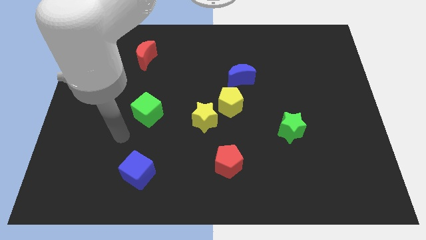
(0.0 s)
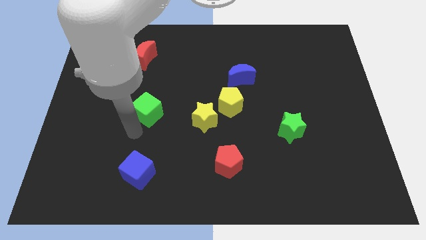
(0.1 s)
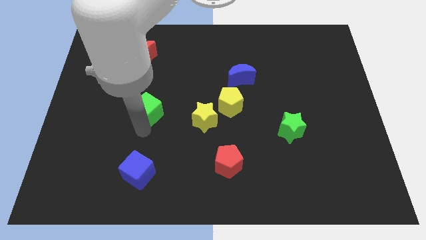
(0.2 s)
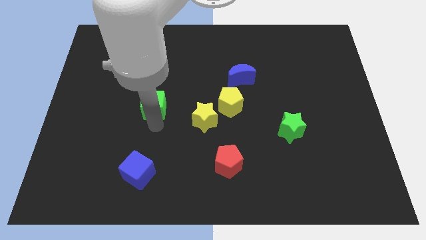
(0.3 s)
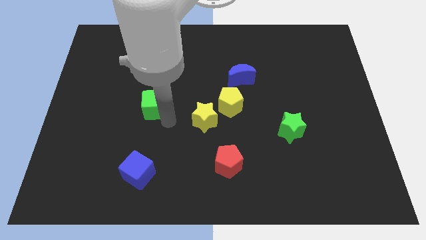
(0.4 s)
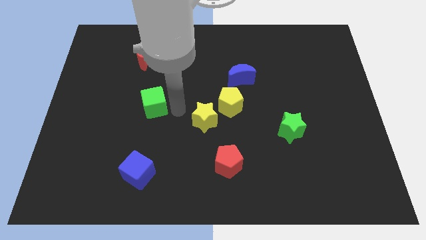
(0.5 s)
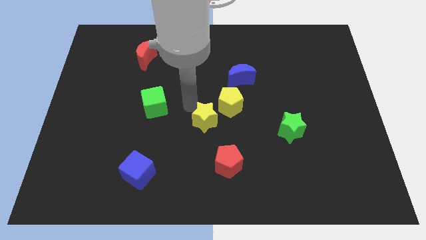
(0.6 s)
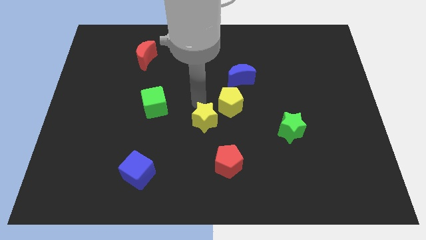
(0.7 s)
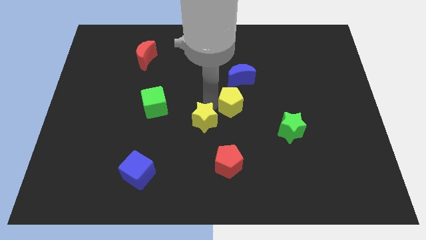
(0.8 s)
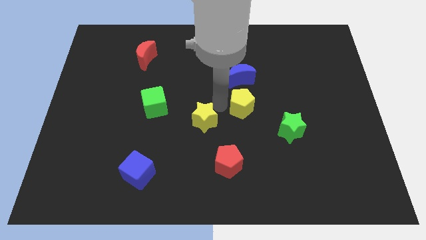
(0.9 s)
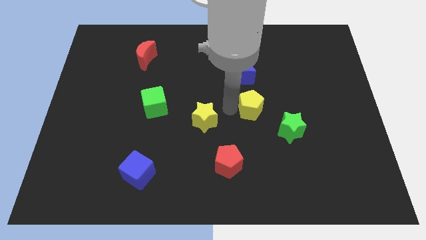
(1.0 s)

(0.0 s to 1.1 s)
separate the yellow star from the yellow pentagon

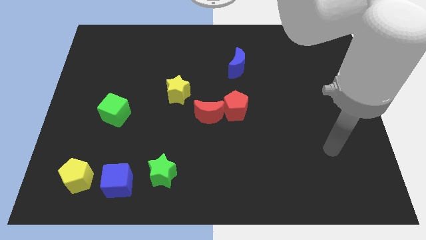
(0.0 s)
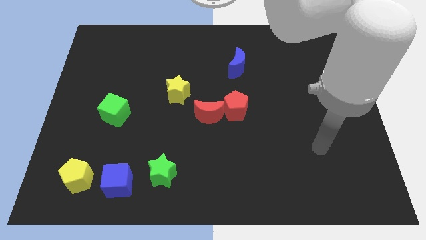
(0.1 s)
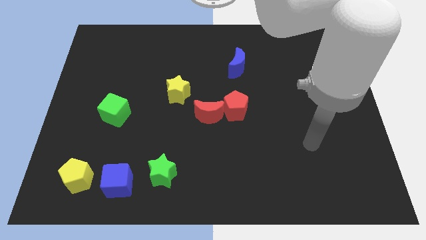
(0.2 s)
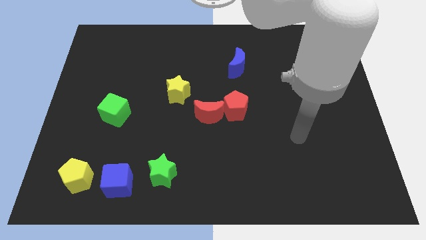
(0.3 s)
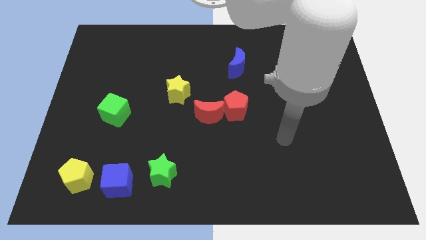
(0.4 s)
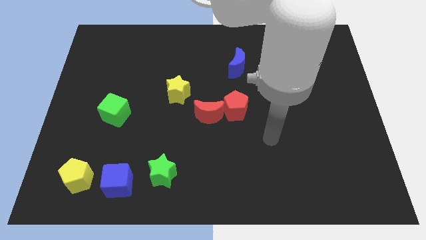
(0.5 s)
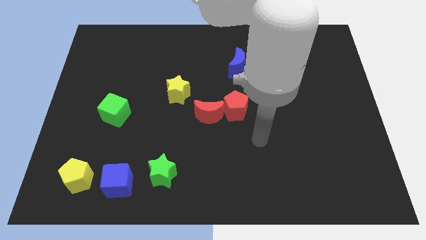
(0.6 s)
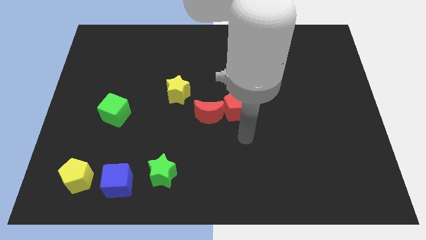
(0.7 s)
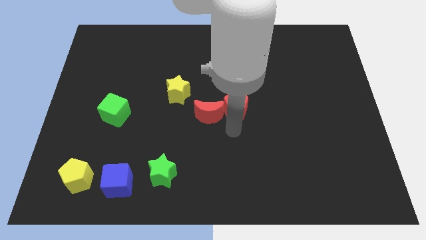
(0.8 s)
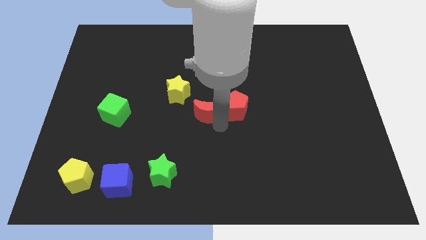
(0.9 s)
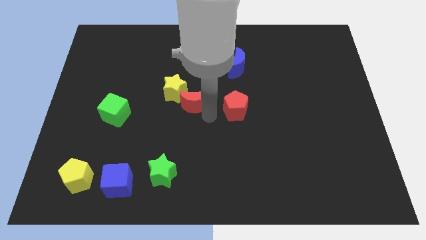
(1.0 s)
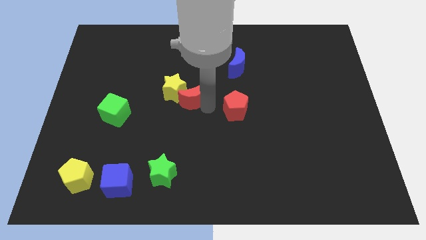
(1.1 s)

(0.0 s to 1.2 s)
pull the red pentagon apart from the red moon

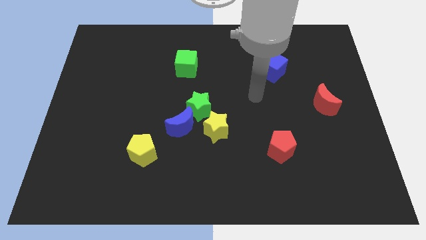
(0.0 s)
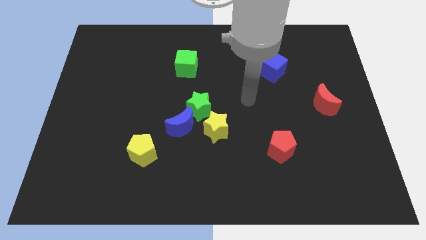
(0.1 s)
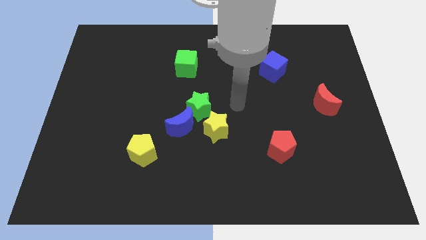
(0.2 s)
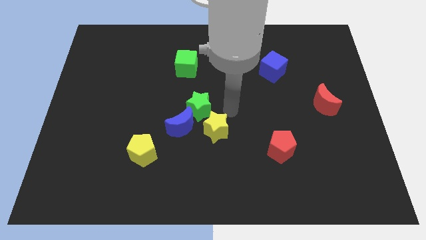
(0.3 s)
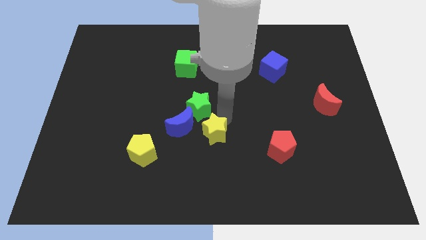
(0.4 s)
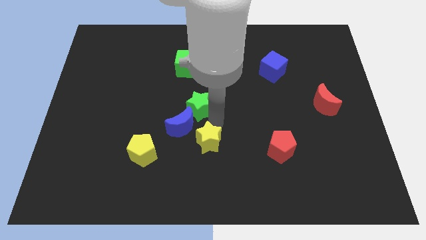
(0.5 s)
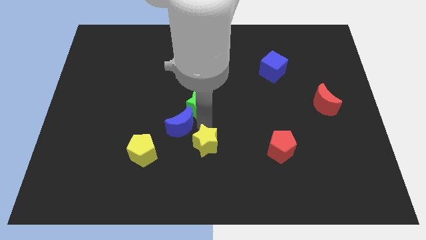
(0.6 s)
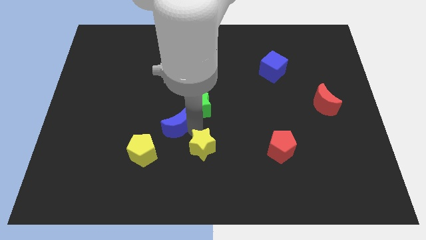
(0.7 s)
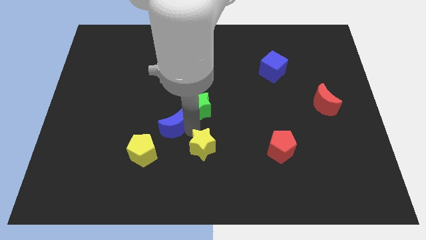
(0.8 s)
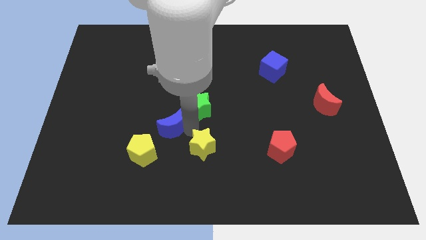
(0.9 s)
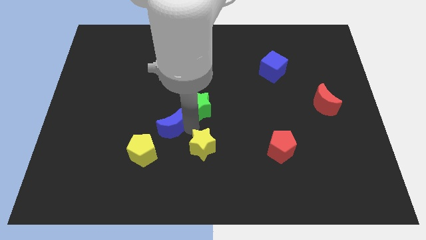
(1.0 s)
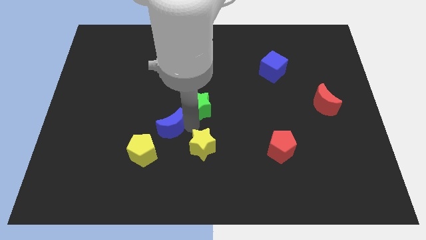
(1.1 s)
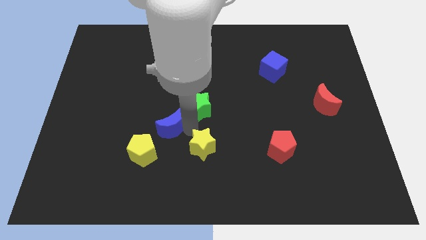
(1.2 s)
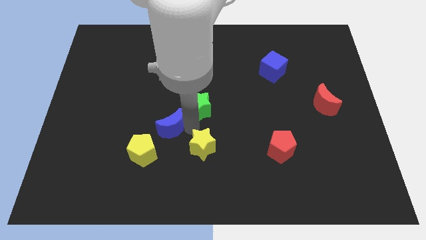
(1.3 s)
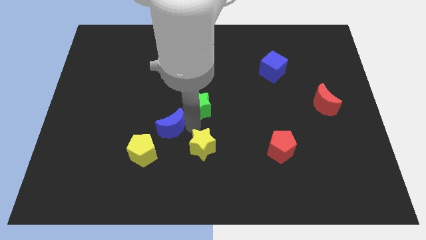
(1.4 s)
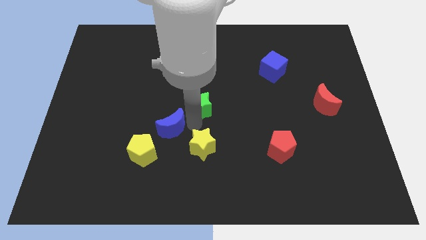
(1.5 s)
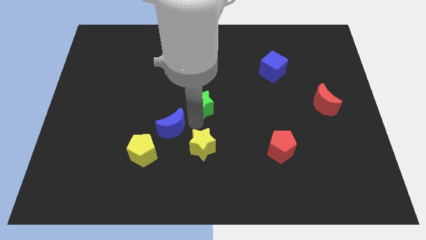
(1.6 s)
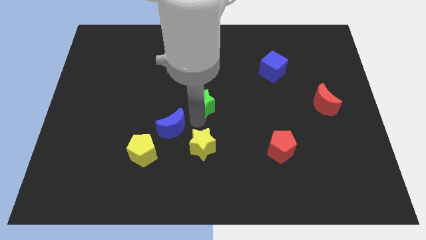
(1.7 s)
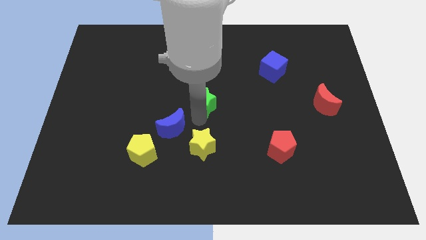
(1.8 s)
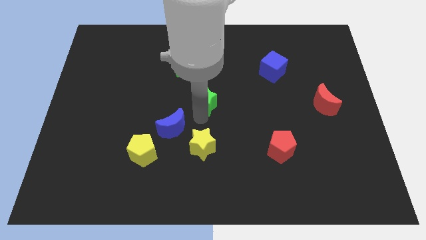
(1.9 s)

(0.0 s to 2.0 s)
move the green star away from the blue moon and yellow star

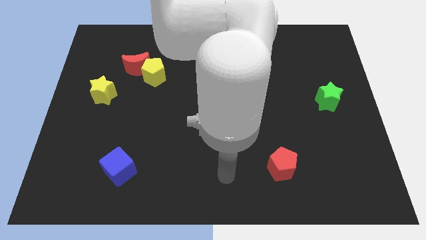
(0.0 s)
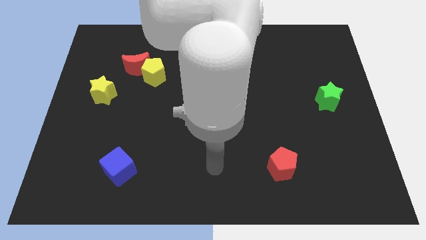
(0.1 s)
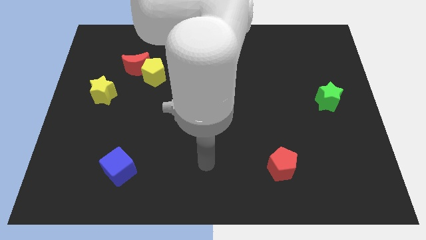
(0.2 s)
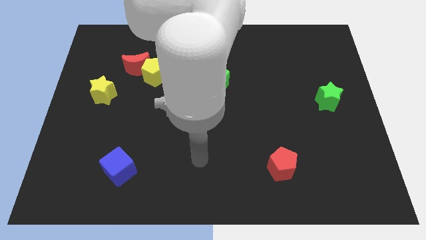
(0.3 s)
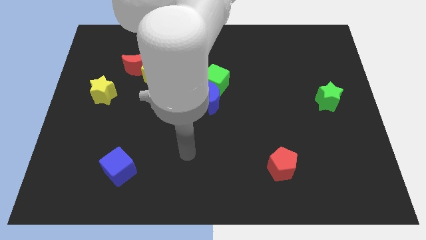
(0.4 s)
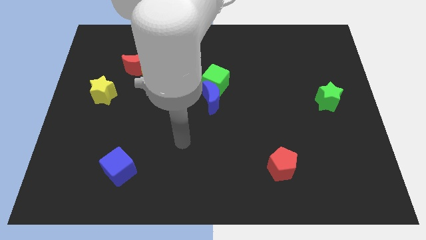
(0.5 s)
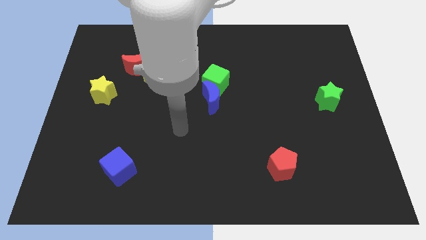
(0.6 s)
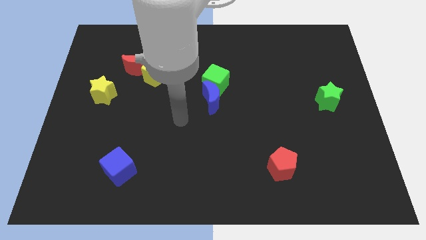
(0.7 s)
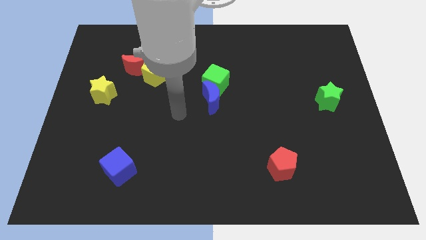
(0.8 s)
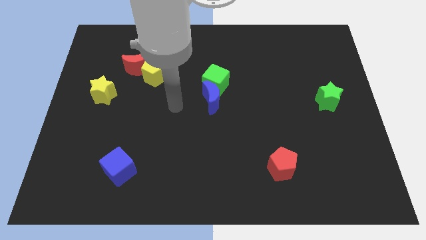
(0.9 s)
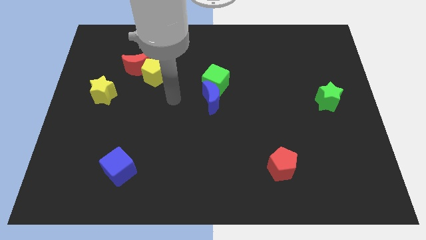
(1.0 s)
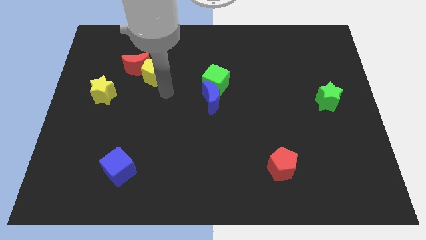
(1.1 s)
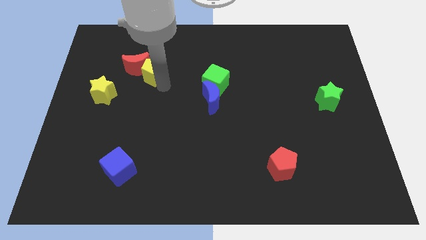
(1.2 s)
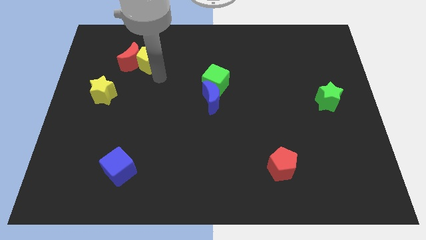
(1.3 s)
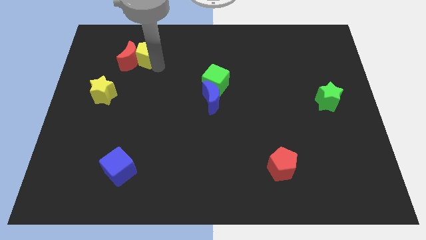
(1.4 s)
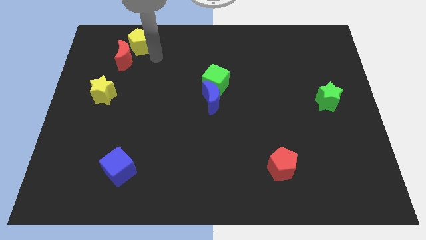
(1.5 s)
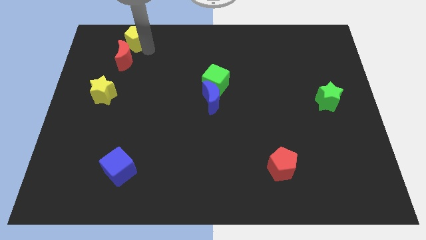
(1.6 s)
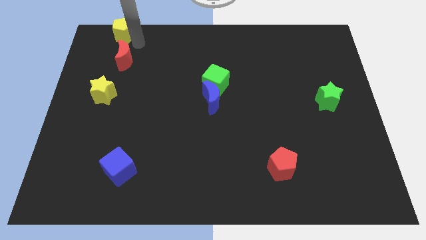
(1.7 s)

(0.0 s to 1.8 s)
pull the red moon apart from the yellow pentagon

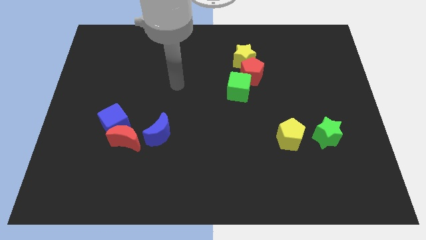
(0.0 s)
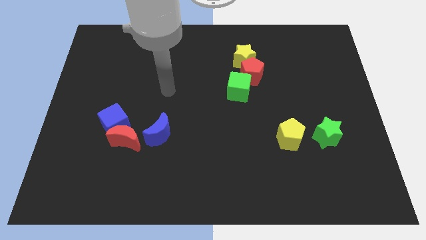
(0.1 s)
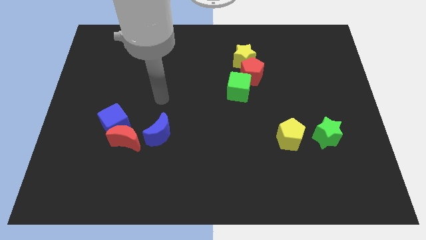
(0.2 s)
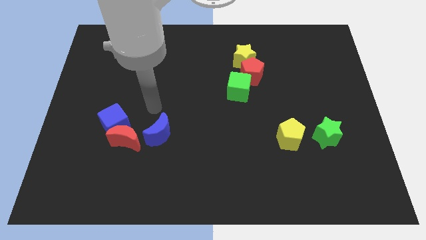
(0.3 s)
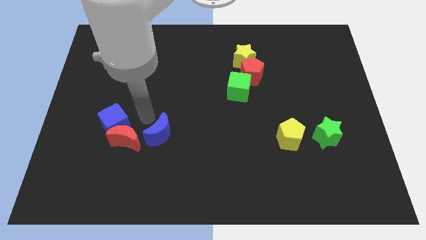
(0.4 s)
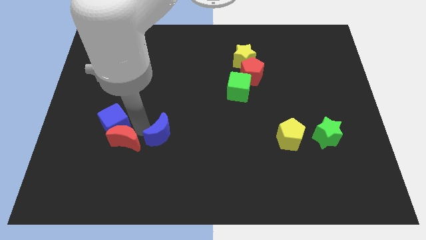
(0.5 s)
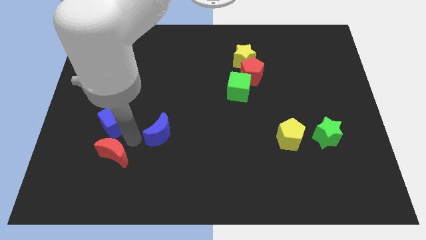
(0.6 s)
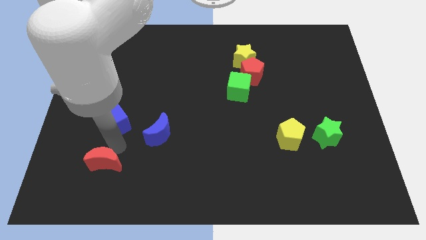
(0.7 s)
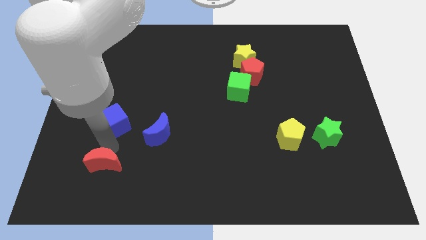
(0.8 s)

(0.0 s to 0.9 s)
move the blue cube away from the red moon

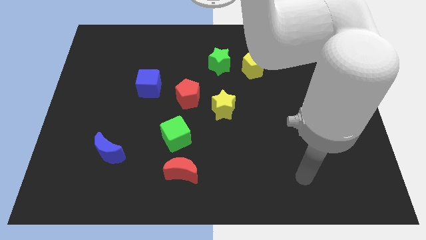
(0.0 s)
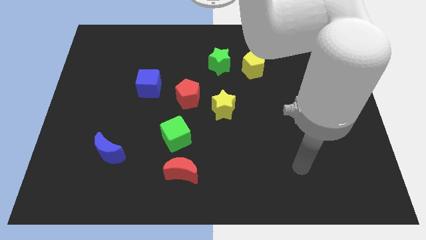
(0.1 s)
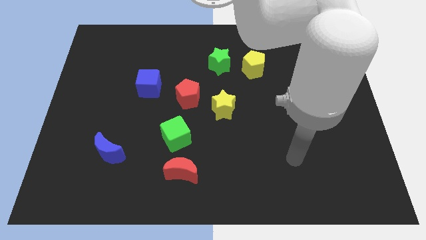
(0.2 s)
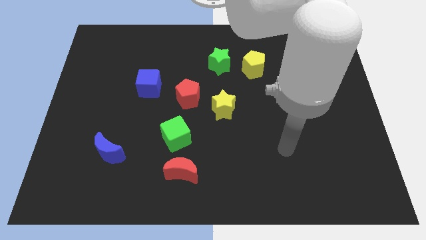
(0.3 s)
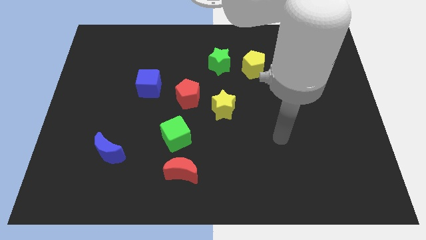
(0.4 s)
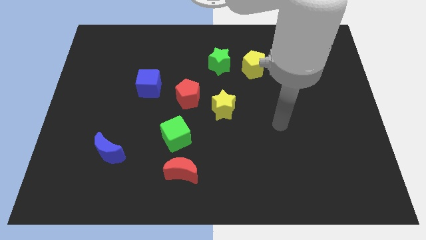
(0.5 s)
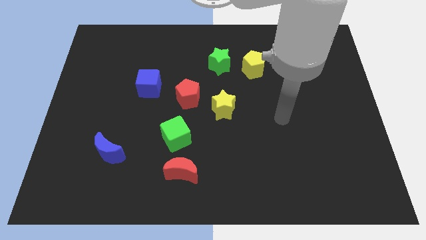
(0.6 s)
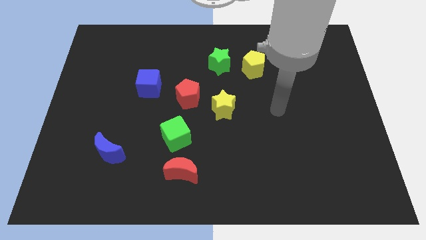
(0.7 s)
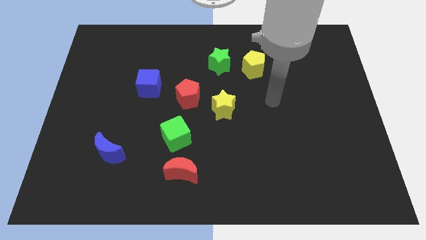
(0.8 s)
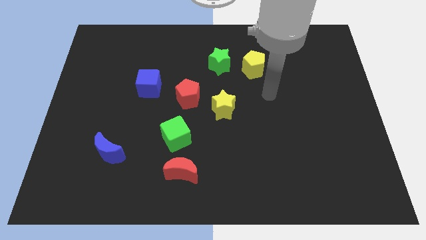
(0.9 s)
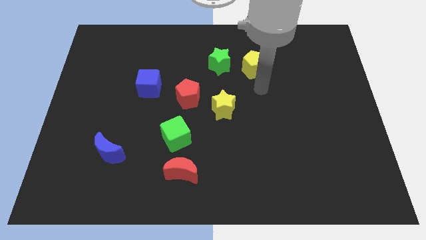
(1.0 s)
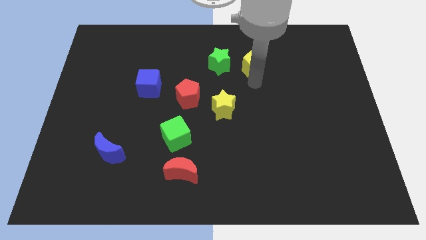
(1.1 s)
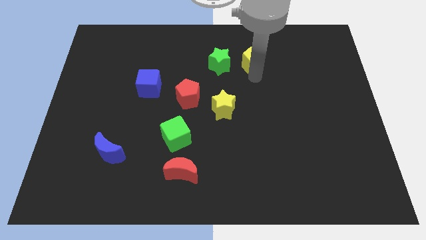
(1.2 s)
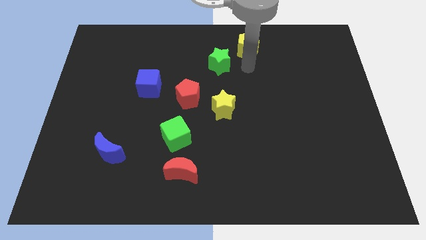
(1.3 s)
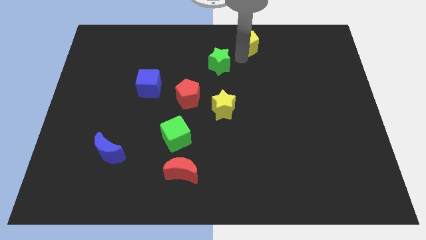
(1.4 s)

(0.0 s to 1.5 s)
pull the green star apart from the yellow pentagon

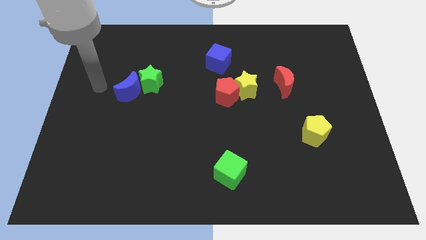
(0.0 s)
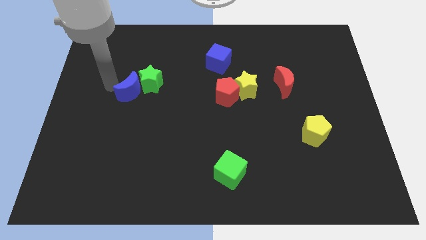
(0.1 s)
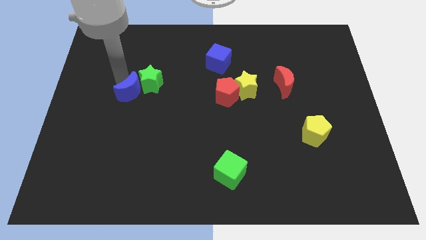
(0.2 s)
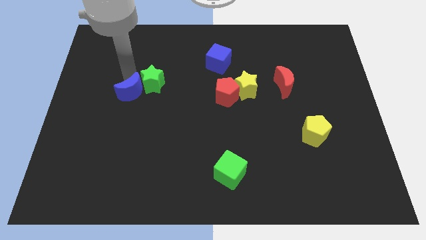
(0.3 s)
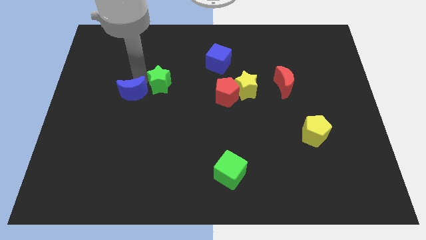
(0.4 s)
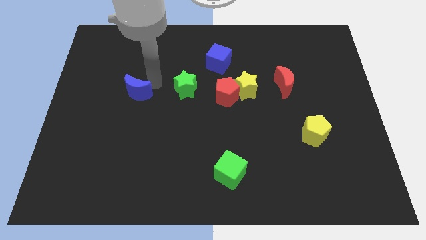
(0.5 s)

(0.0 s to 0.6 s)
separate the blue moon from the green star

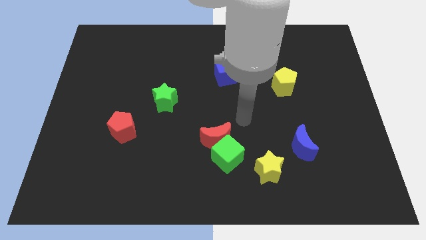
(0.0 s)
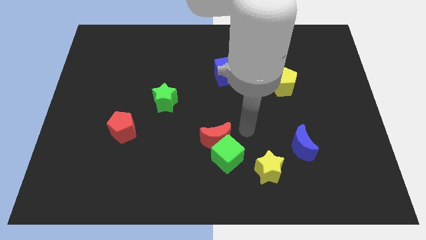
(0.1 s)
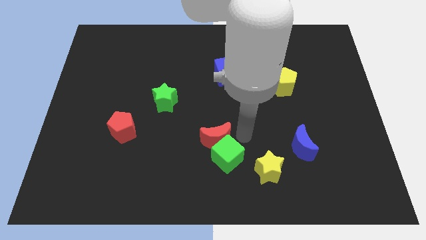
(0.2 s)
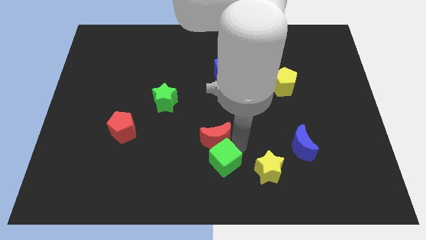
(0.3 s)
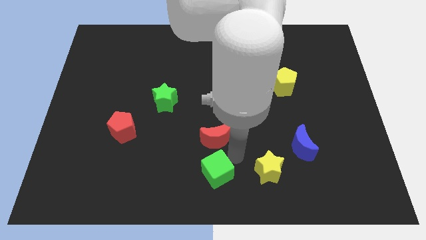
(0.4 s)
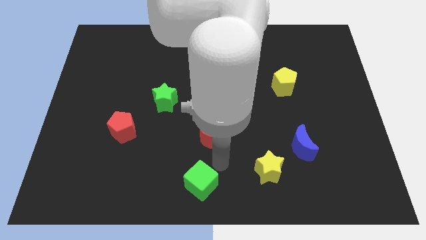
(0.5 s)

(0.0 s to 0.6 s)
pull the red moon apart from the green cube
